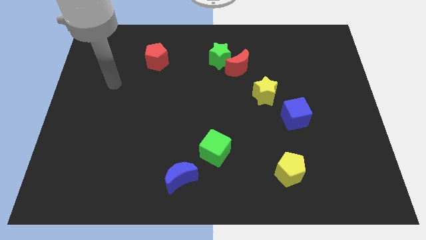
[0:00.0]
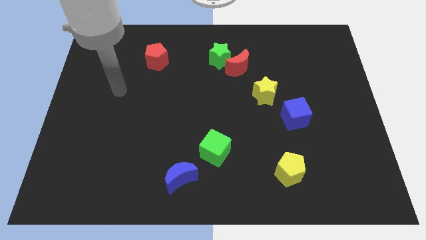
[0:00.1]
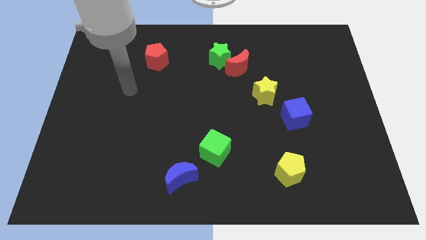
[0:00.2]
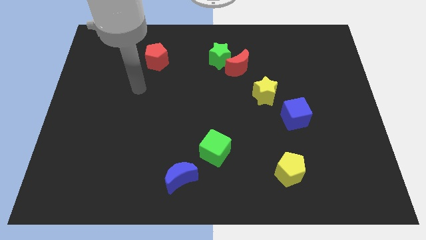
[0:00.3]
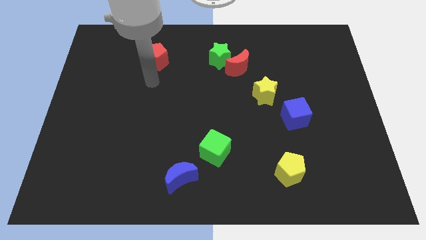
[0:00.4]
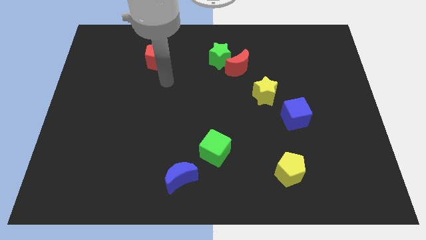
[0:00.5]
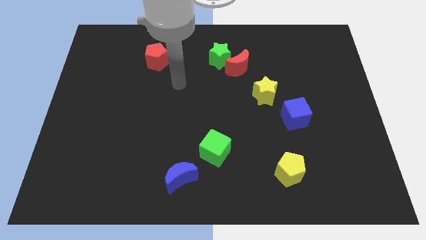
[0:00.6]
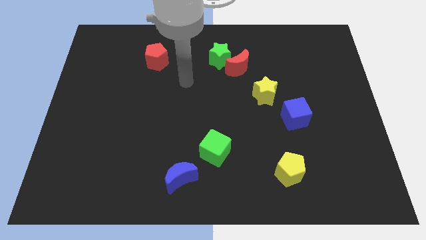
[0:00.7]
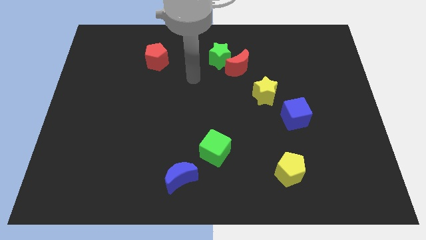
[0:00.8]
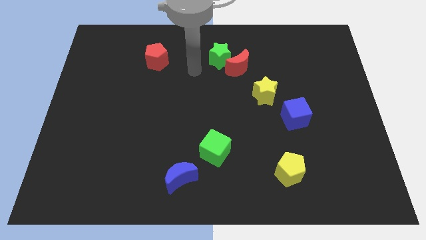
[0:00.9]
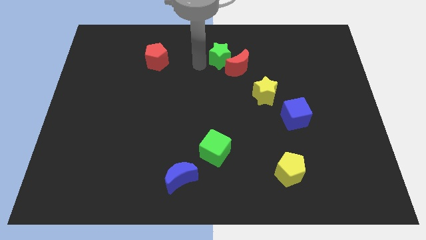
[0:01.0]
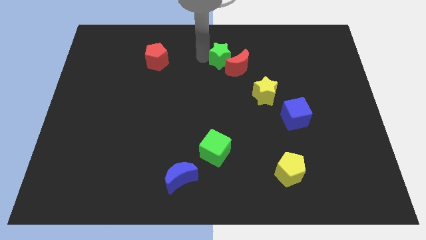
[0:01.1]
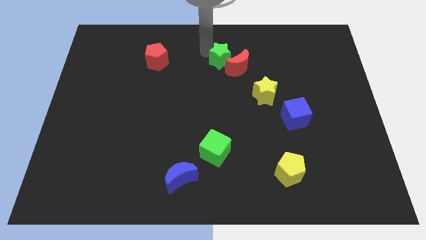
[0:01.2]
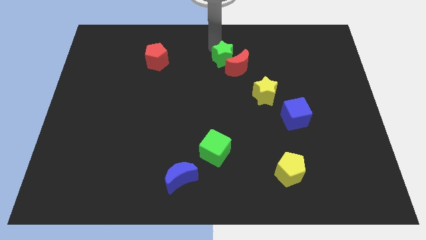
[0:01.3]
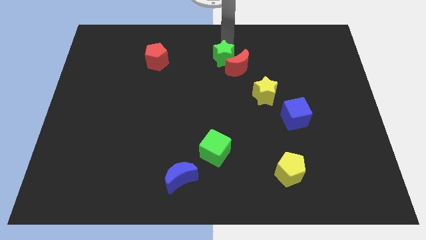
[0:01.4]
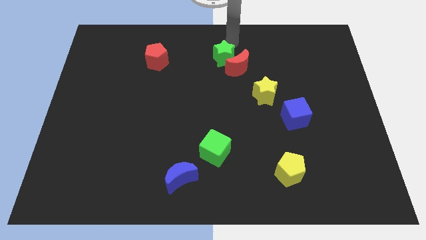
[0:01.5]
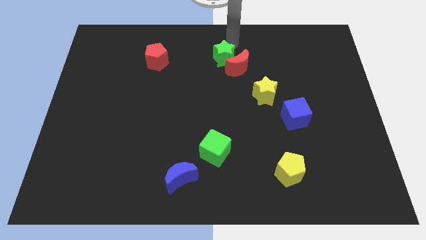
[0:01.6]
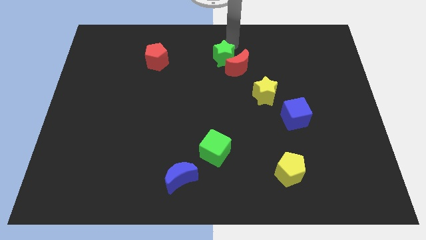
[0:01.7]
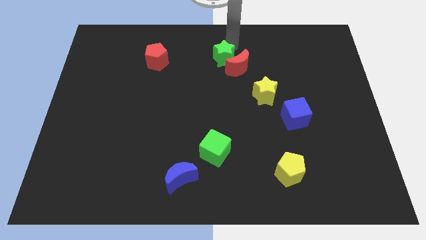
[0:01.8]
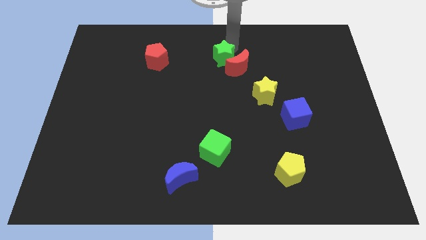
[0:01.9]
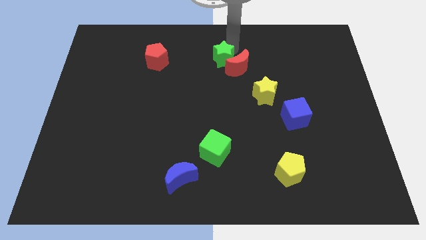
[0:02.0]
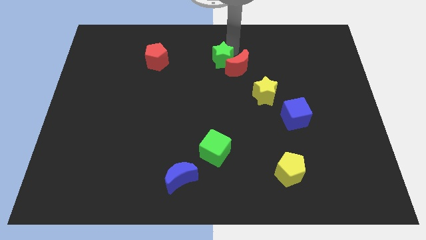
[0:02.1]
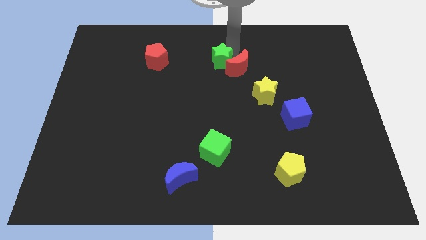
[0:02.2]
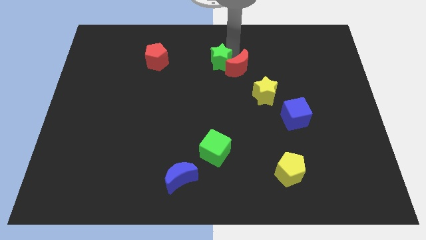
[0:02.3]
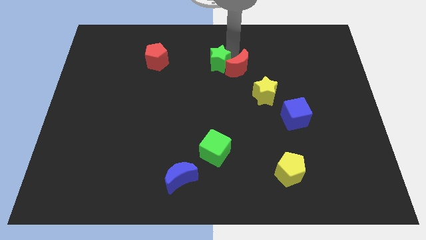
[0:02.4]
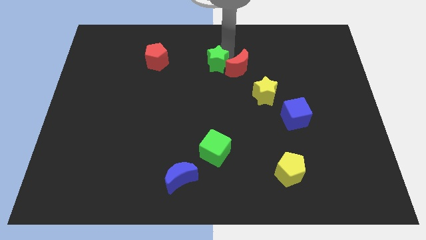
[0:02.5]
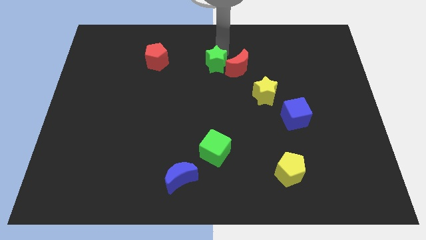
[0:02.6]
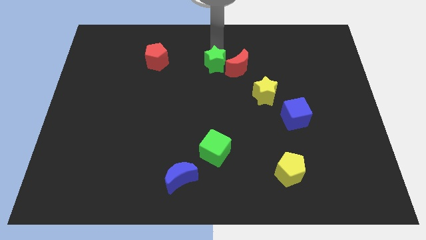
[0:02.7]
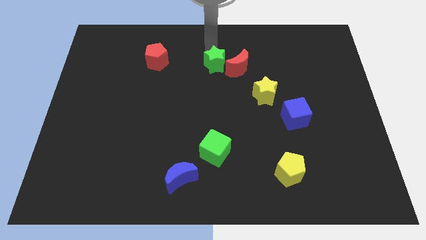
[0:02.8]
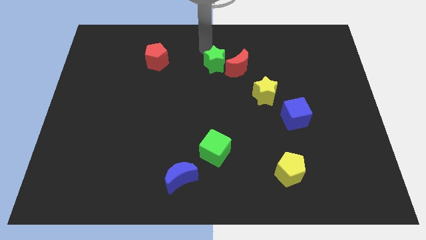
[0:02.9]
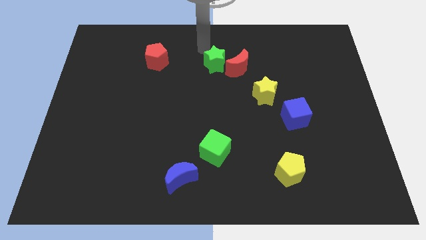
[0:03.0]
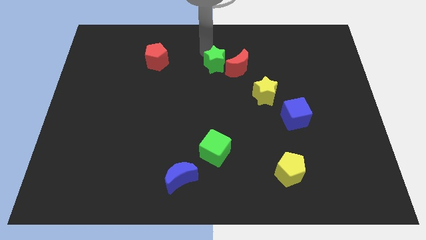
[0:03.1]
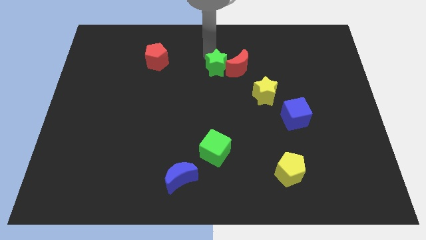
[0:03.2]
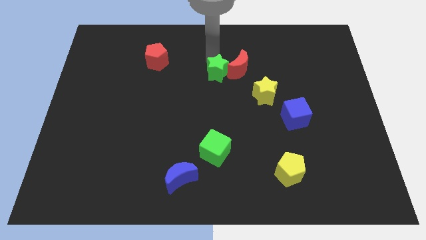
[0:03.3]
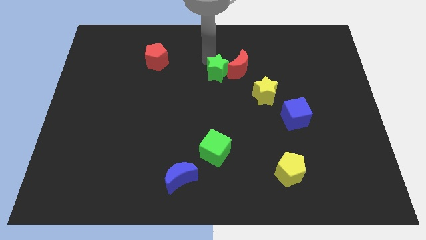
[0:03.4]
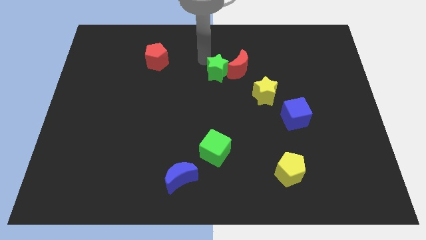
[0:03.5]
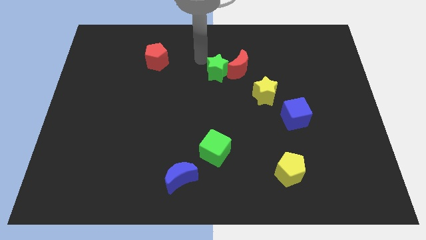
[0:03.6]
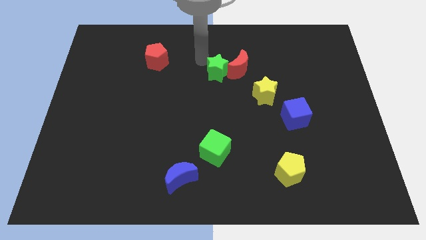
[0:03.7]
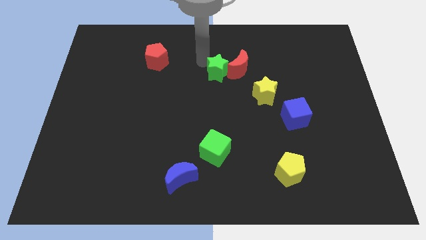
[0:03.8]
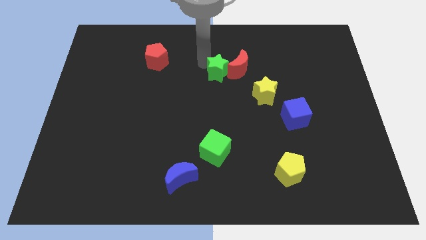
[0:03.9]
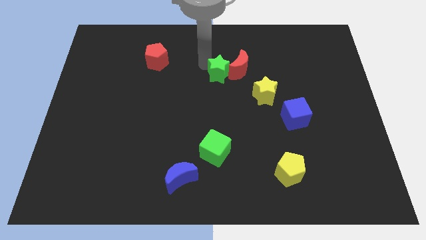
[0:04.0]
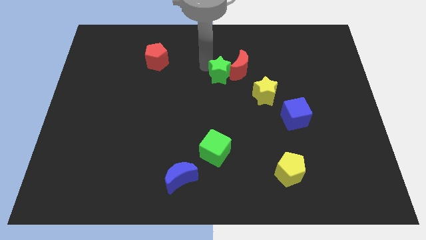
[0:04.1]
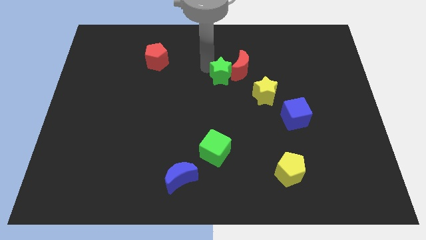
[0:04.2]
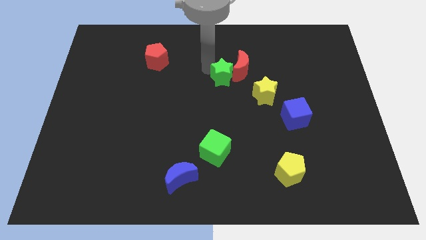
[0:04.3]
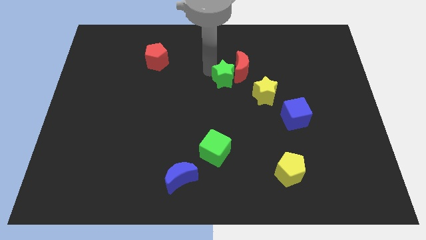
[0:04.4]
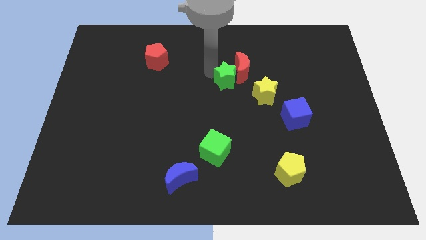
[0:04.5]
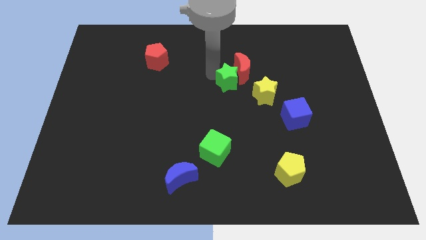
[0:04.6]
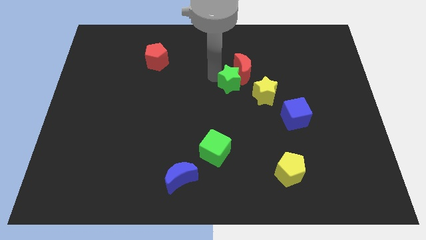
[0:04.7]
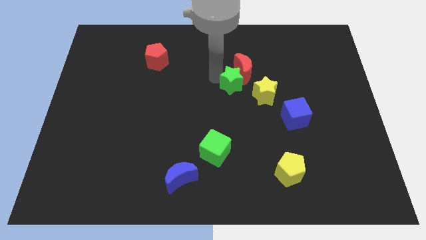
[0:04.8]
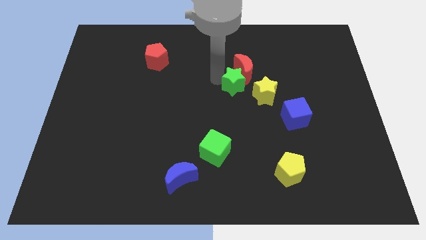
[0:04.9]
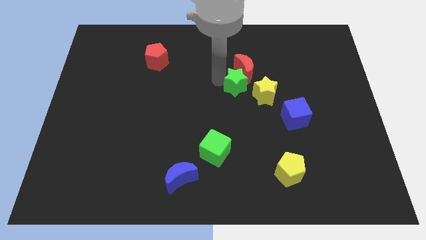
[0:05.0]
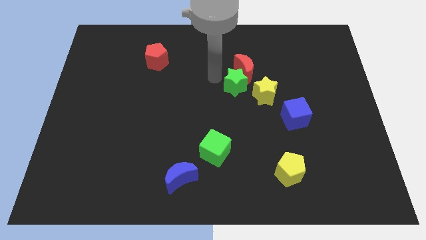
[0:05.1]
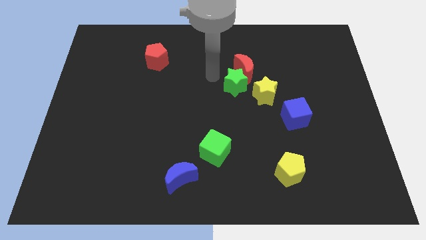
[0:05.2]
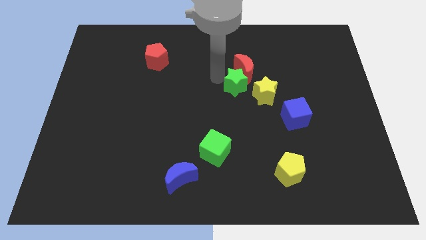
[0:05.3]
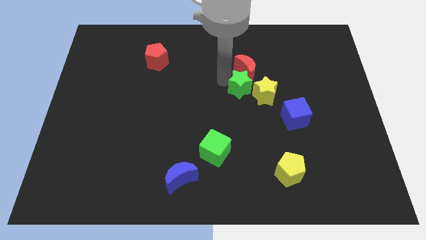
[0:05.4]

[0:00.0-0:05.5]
push the green star to the yellow star

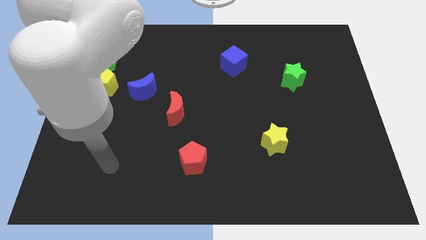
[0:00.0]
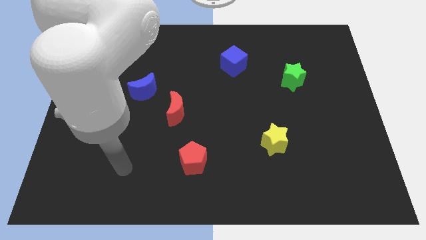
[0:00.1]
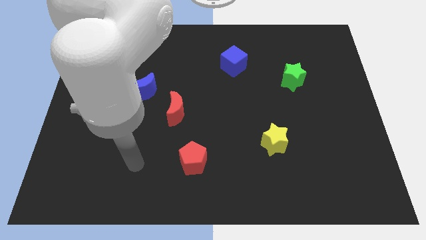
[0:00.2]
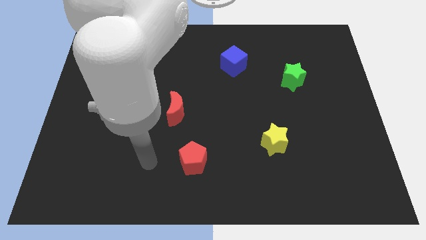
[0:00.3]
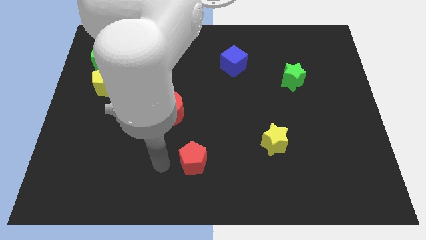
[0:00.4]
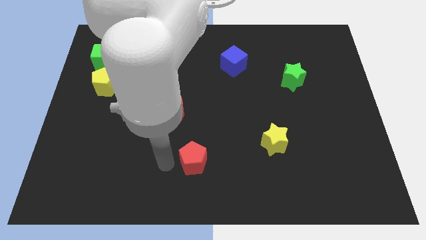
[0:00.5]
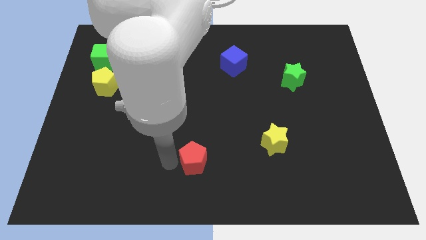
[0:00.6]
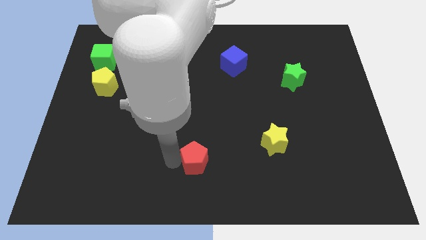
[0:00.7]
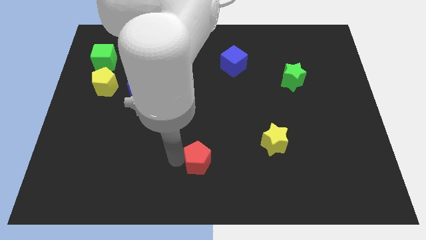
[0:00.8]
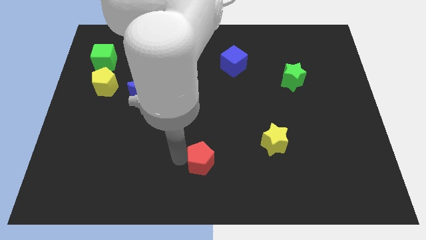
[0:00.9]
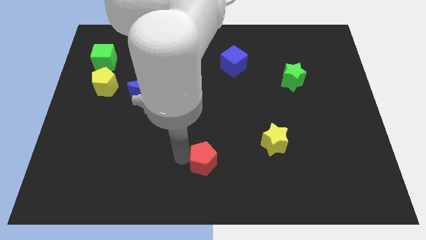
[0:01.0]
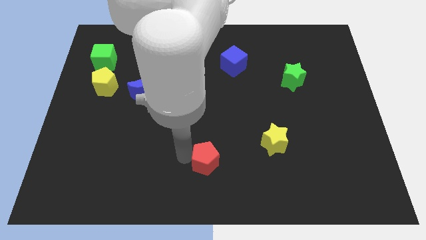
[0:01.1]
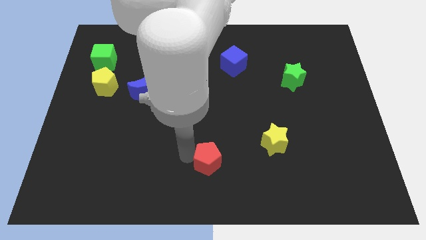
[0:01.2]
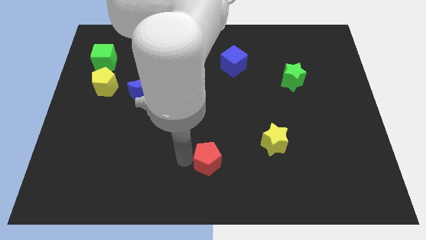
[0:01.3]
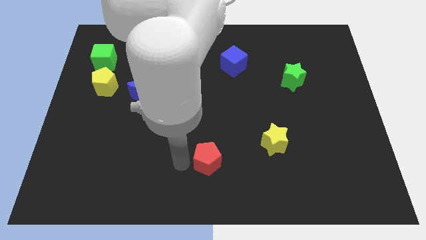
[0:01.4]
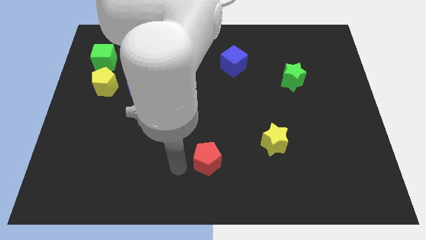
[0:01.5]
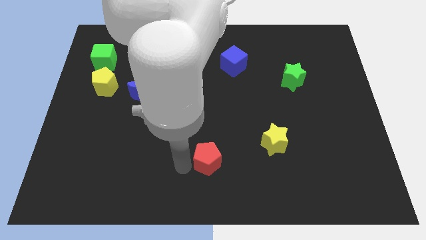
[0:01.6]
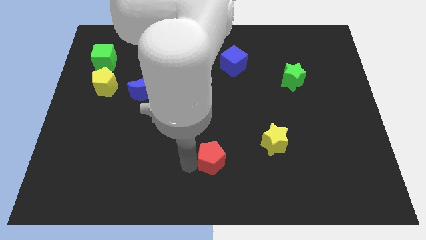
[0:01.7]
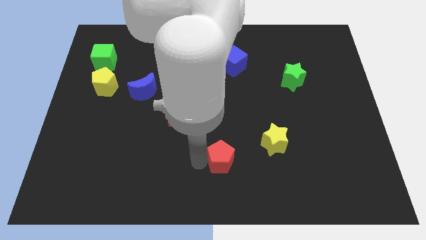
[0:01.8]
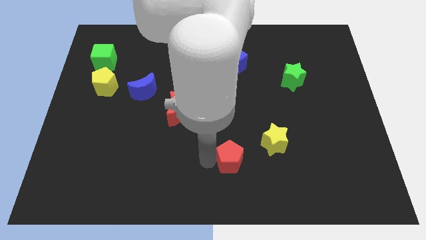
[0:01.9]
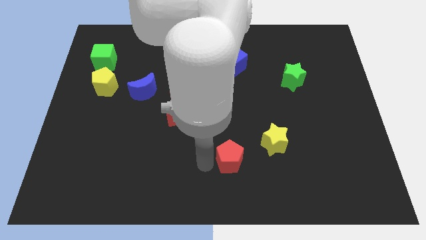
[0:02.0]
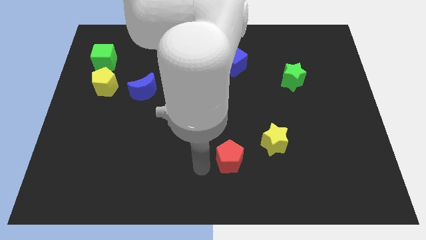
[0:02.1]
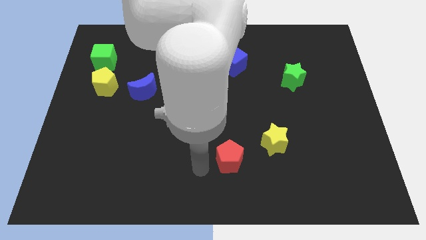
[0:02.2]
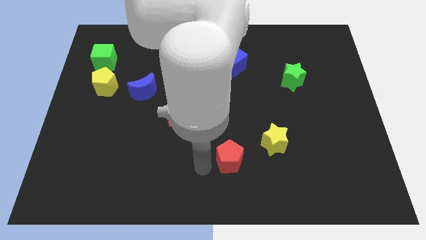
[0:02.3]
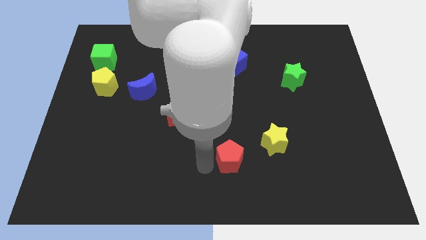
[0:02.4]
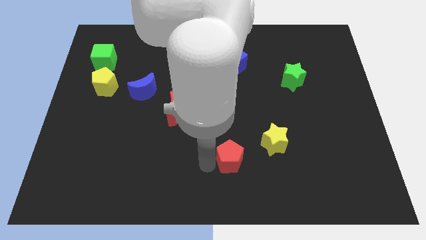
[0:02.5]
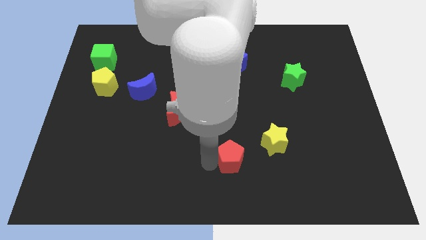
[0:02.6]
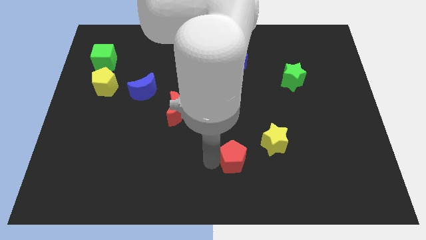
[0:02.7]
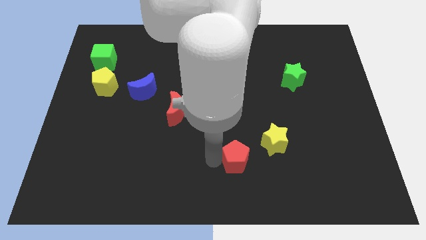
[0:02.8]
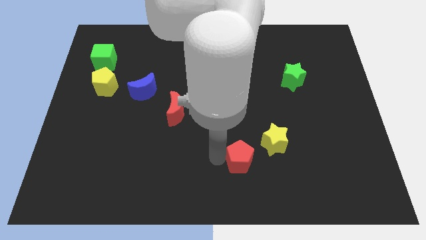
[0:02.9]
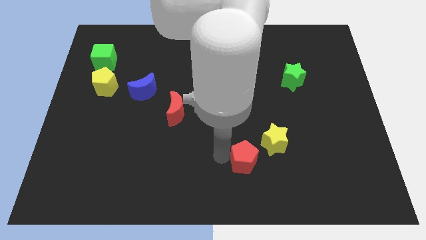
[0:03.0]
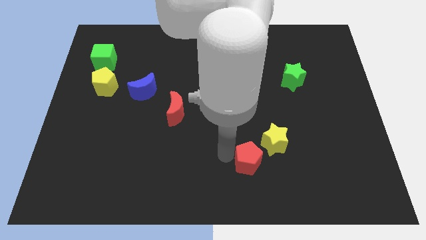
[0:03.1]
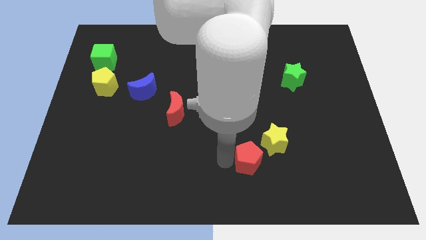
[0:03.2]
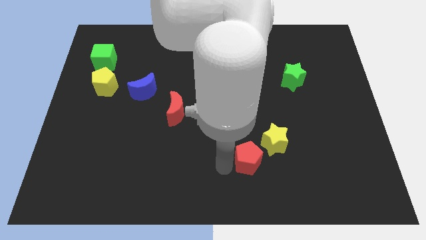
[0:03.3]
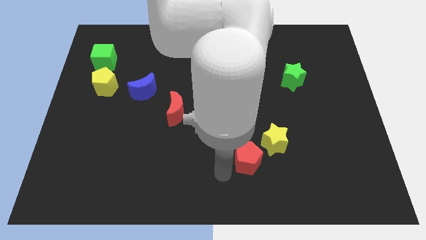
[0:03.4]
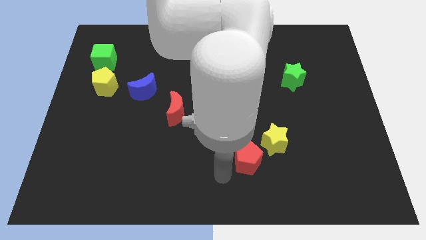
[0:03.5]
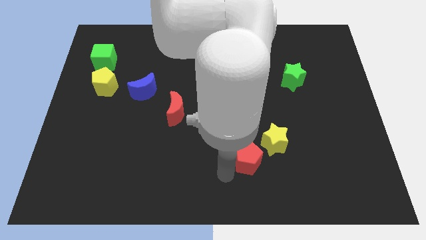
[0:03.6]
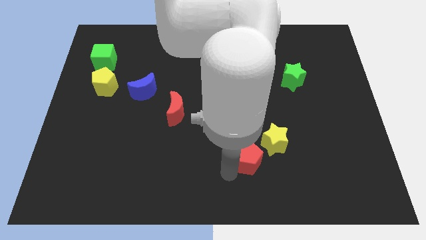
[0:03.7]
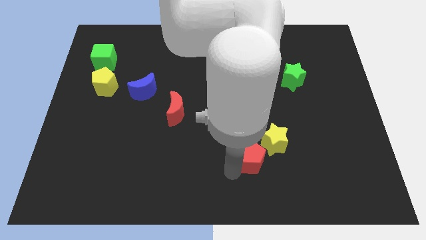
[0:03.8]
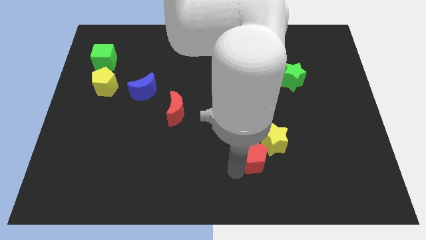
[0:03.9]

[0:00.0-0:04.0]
push the red pentagon next to the yellow star
